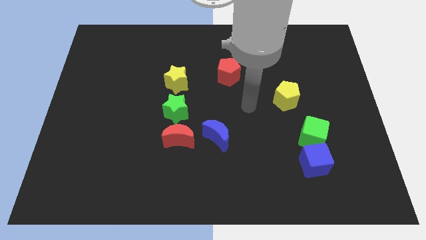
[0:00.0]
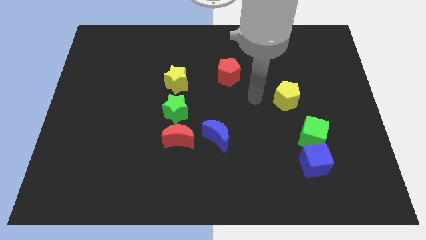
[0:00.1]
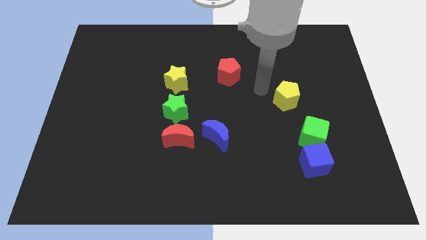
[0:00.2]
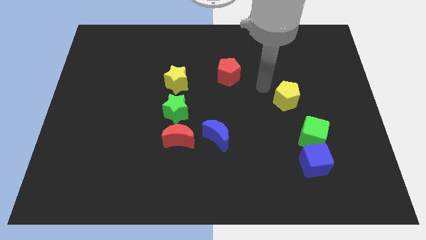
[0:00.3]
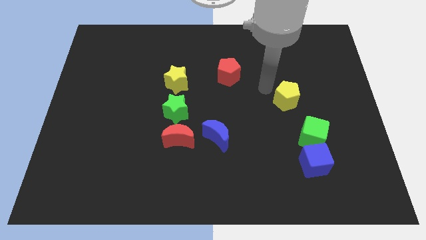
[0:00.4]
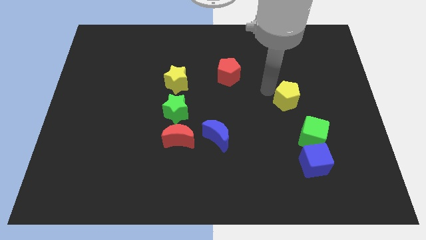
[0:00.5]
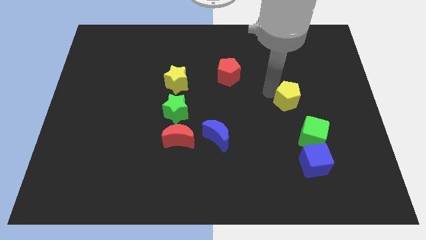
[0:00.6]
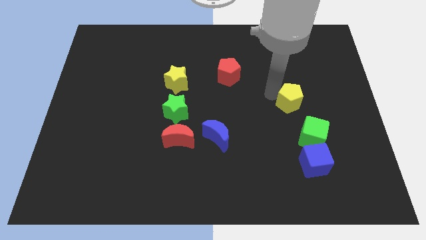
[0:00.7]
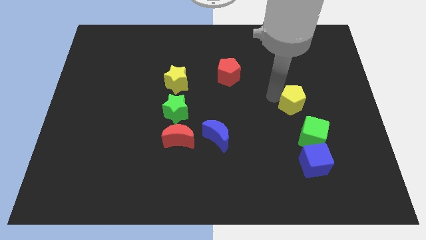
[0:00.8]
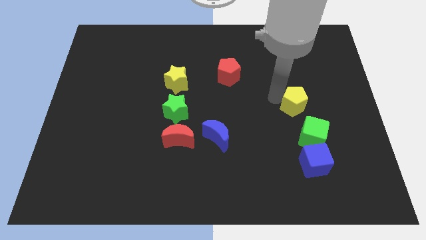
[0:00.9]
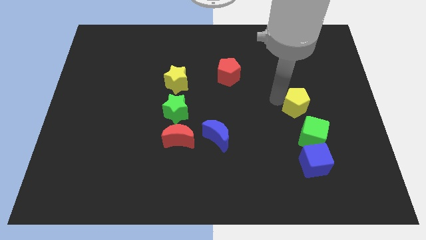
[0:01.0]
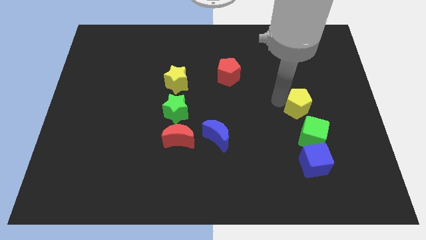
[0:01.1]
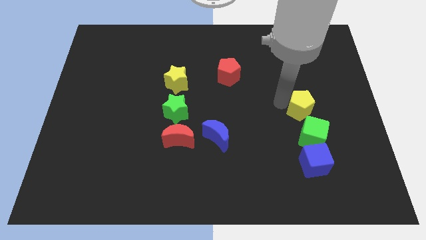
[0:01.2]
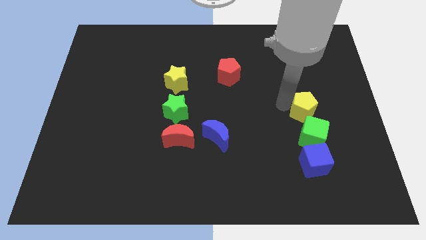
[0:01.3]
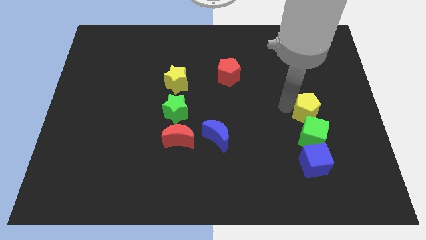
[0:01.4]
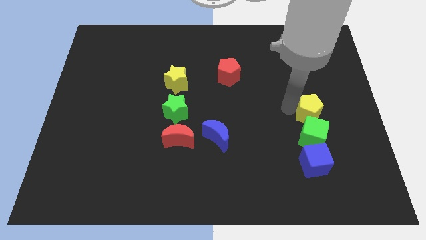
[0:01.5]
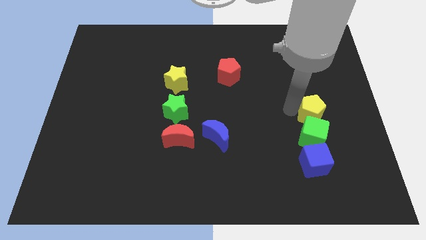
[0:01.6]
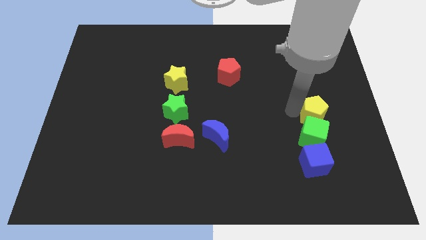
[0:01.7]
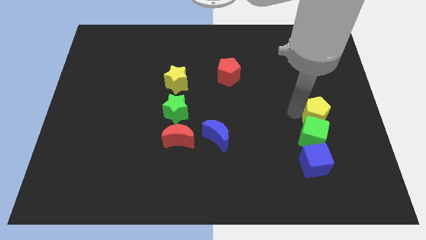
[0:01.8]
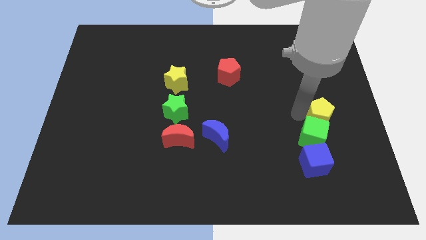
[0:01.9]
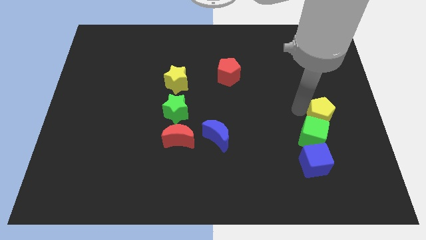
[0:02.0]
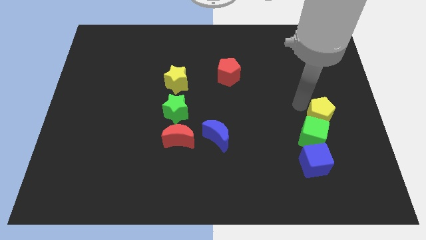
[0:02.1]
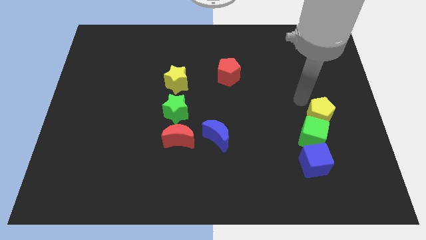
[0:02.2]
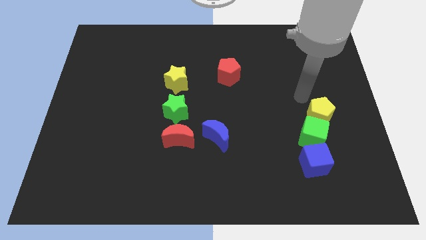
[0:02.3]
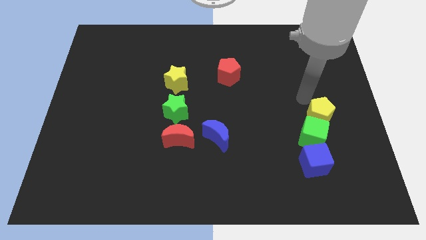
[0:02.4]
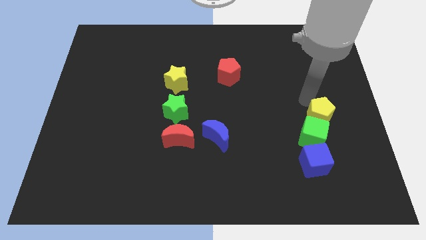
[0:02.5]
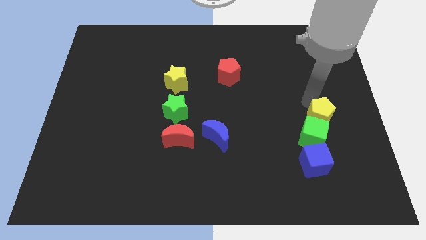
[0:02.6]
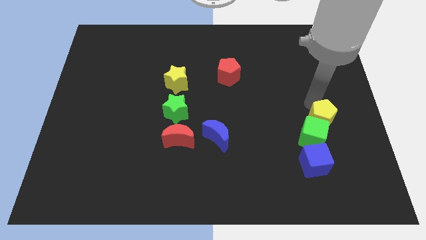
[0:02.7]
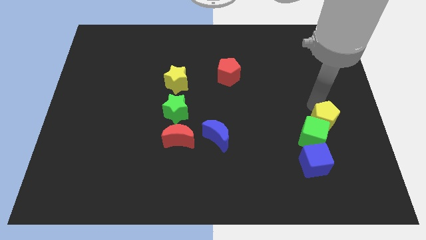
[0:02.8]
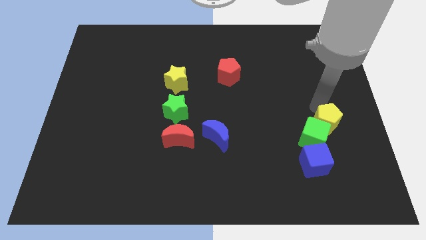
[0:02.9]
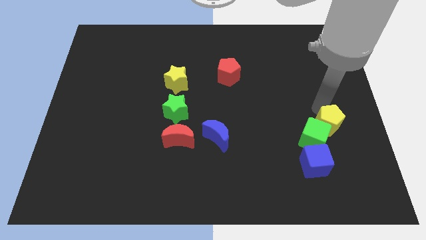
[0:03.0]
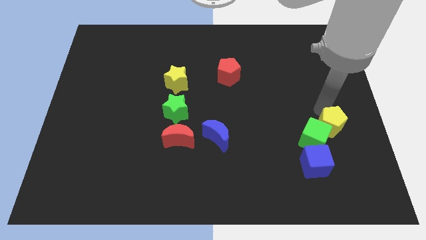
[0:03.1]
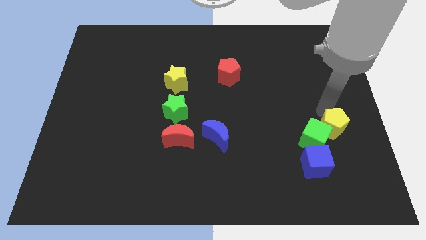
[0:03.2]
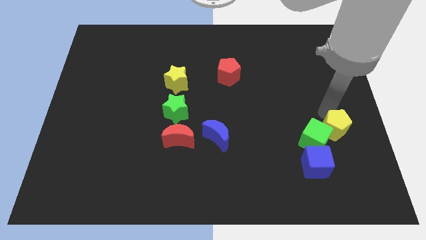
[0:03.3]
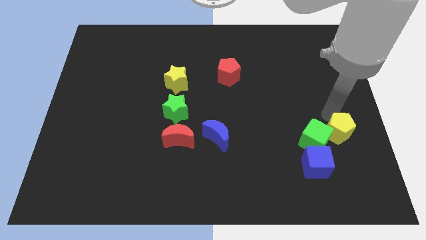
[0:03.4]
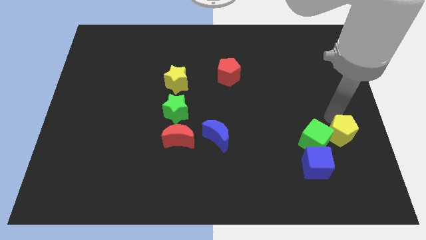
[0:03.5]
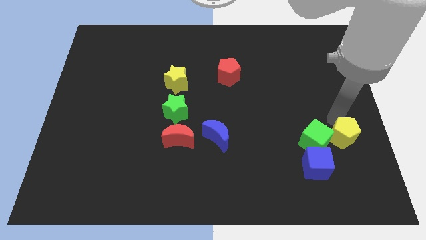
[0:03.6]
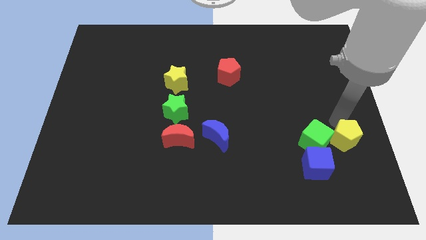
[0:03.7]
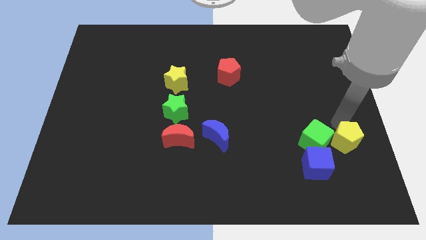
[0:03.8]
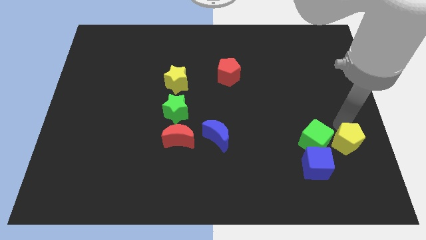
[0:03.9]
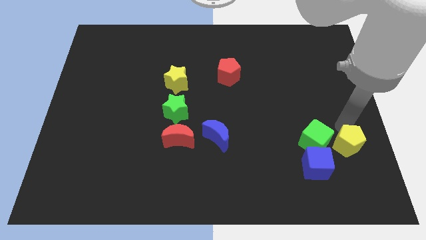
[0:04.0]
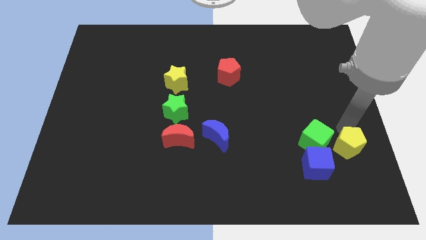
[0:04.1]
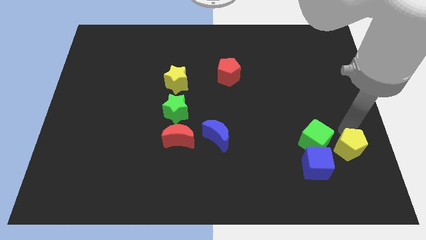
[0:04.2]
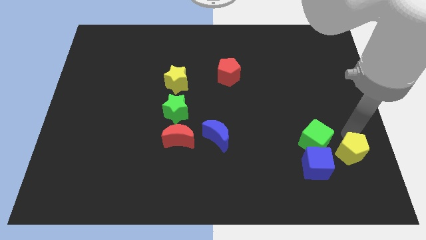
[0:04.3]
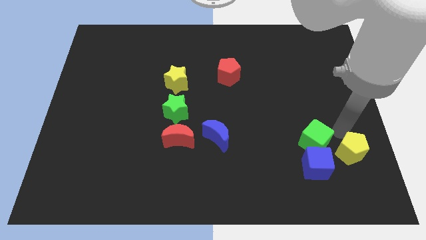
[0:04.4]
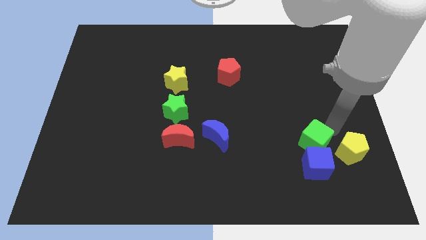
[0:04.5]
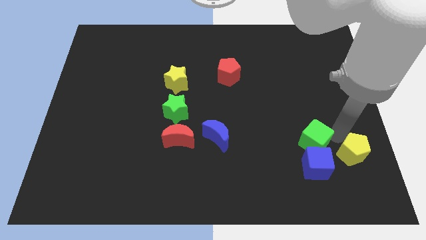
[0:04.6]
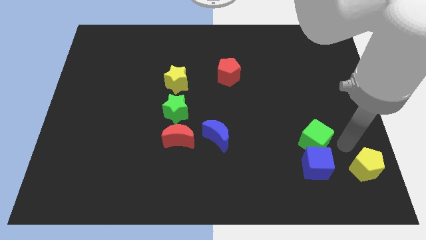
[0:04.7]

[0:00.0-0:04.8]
move the yellow pentagon to the lower right corner

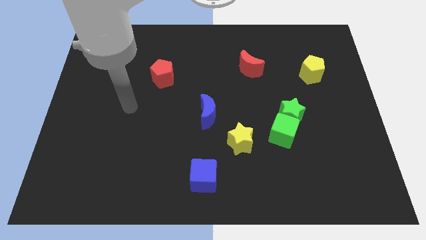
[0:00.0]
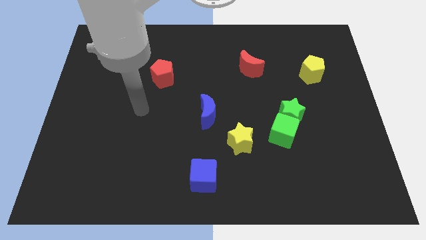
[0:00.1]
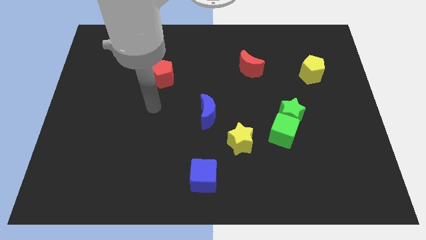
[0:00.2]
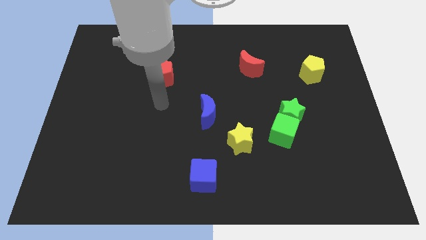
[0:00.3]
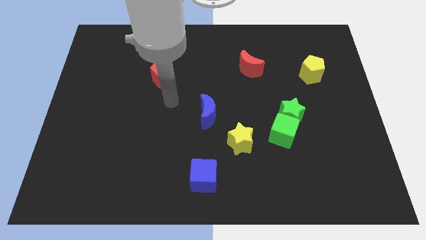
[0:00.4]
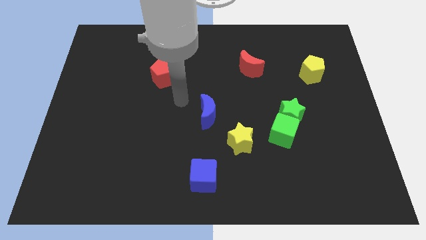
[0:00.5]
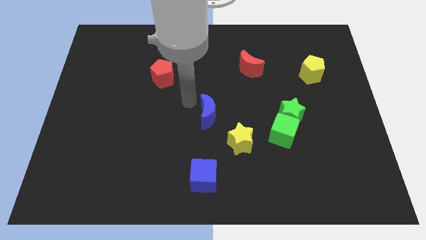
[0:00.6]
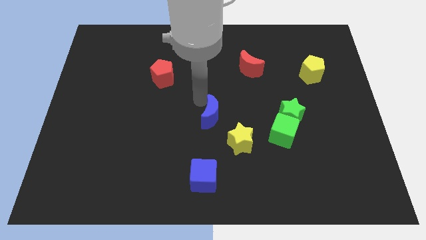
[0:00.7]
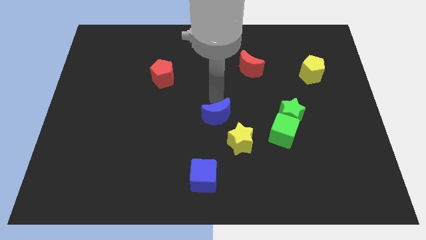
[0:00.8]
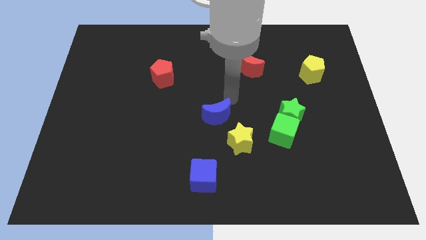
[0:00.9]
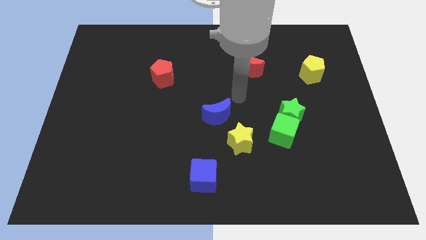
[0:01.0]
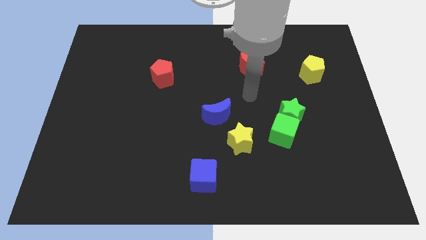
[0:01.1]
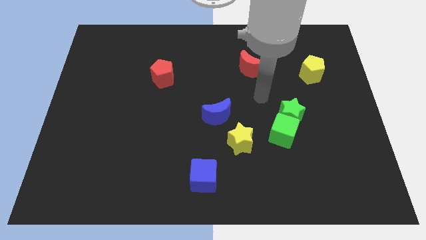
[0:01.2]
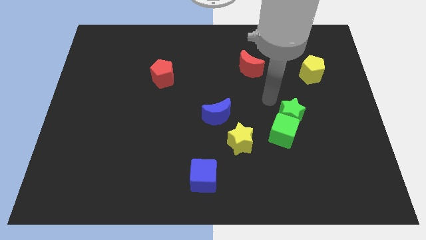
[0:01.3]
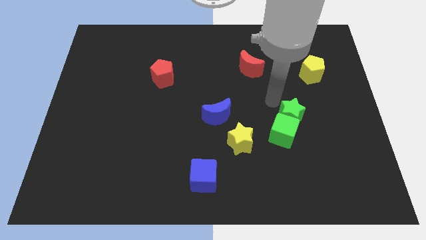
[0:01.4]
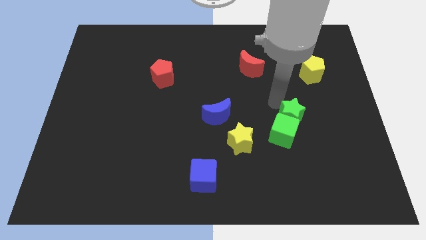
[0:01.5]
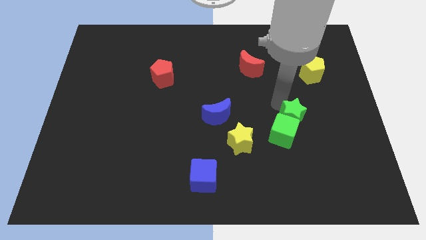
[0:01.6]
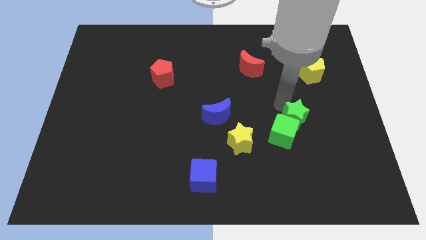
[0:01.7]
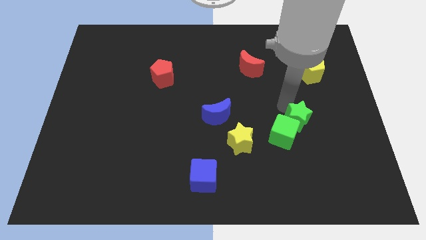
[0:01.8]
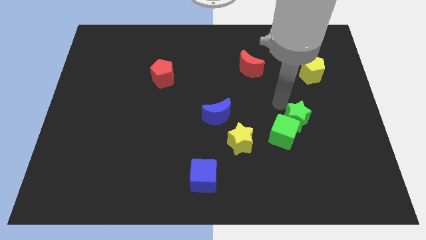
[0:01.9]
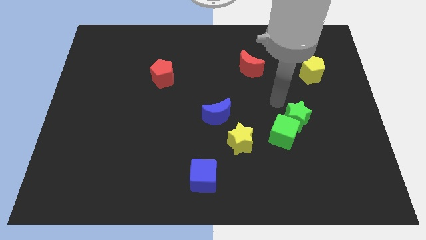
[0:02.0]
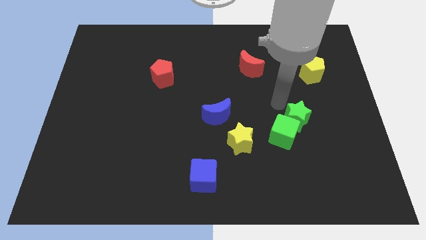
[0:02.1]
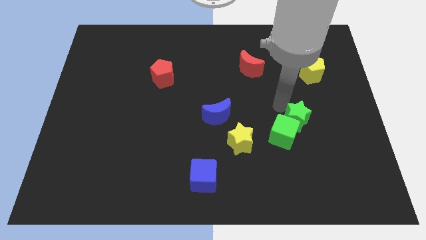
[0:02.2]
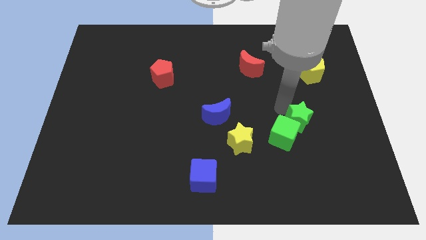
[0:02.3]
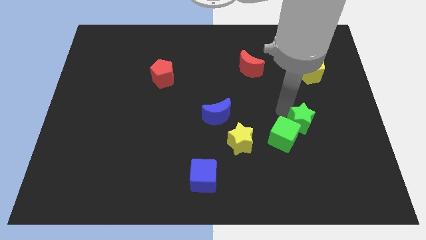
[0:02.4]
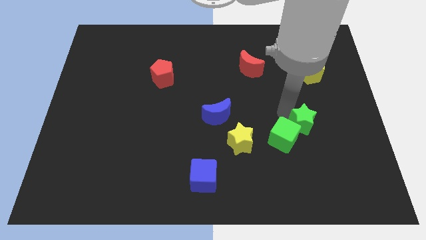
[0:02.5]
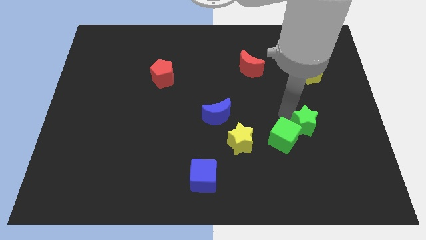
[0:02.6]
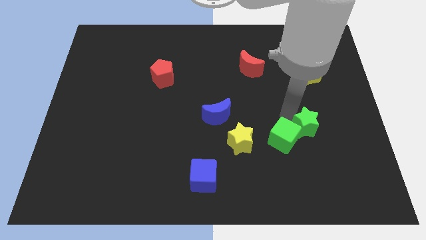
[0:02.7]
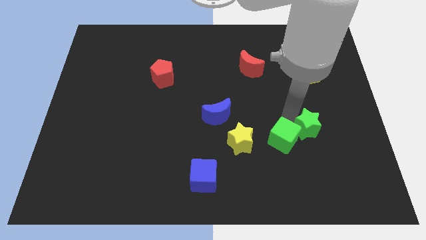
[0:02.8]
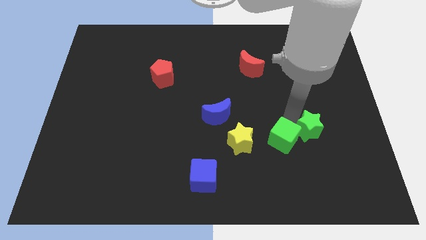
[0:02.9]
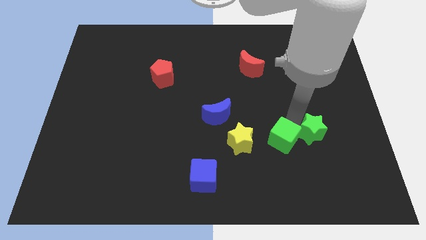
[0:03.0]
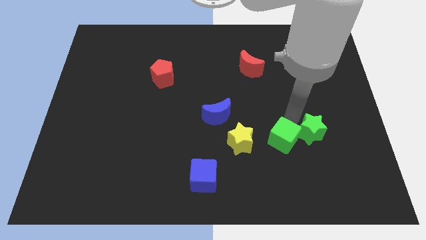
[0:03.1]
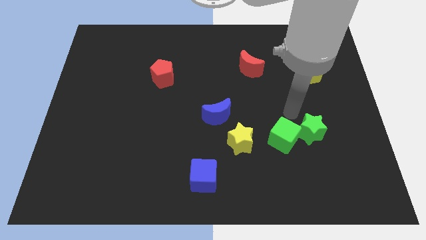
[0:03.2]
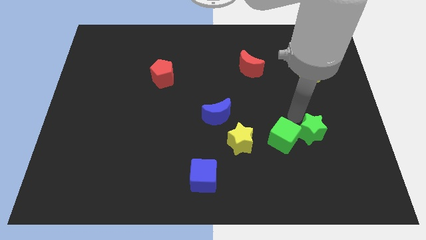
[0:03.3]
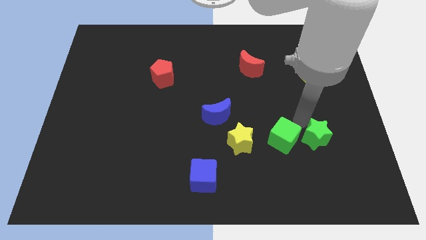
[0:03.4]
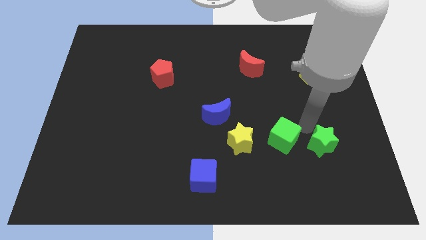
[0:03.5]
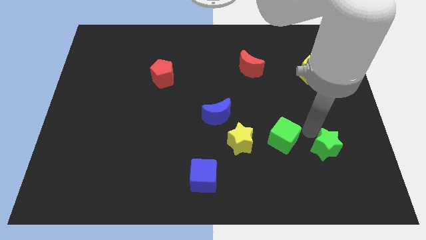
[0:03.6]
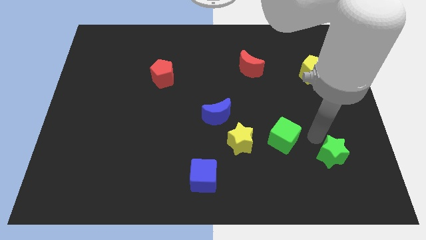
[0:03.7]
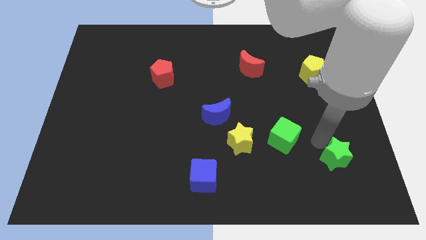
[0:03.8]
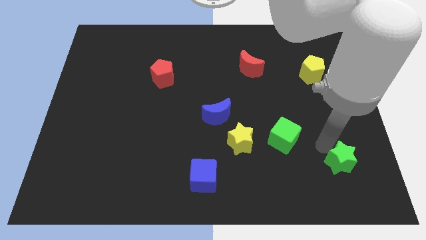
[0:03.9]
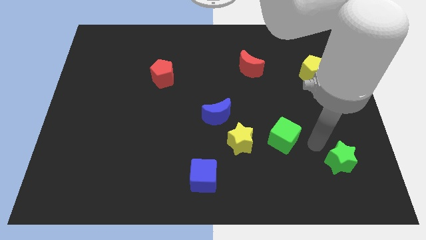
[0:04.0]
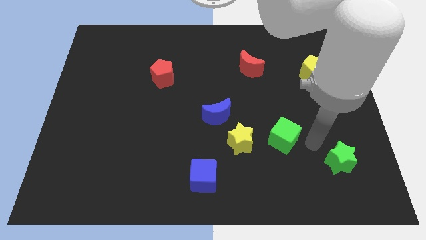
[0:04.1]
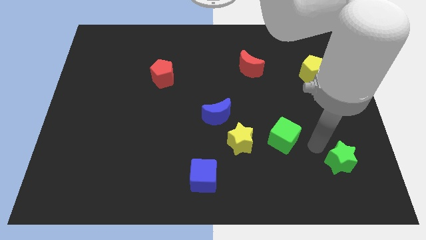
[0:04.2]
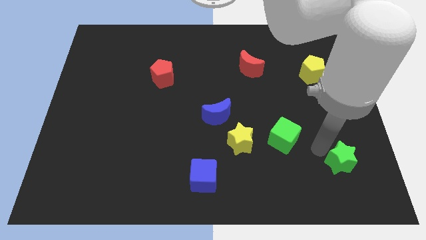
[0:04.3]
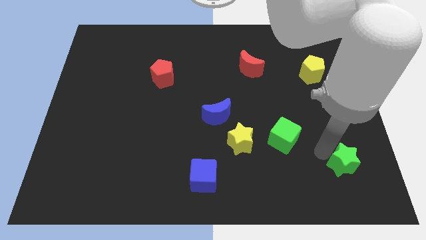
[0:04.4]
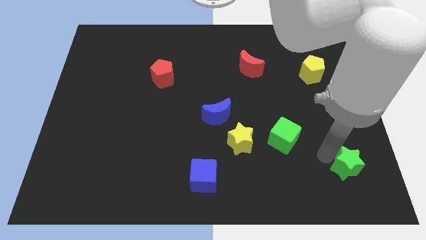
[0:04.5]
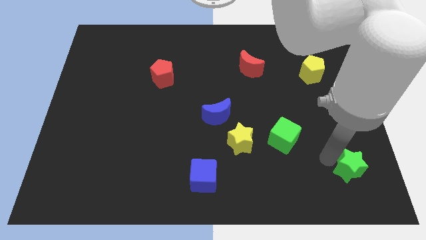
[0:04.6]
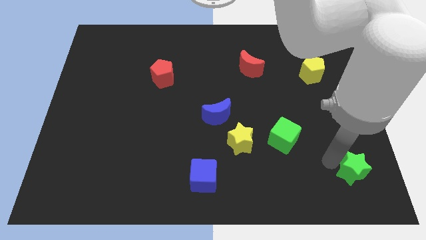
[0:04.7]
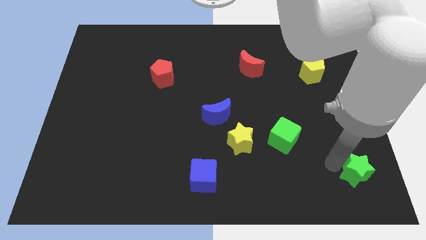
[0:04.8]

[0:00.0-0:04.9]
slide the green star to the bottom right of the board
